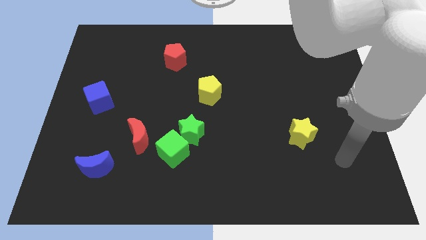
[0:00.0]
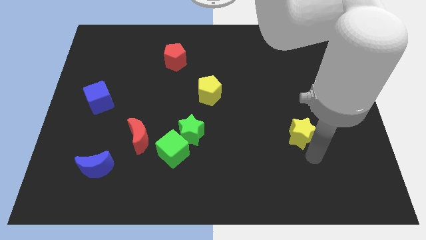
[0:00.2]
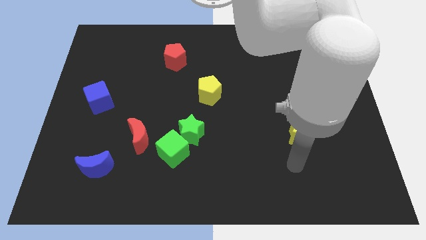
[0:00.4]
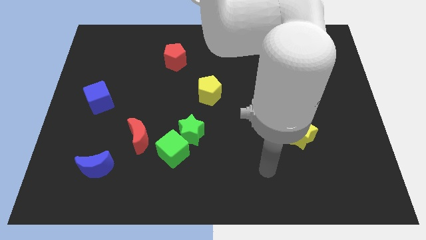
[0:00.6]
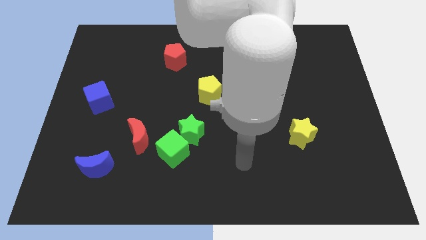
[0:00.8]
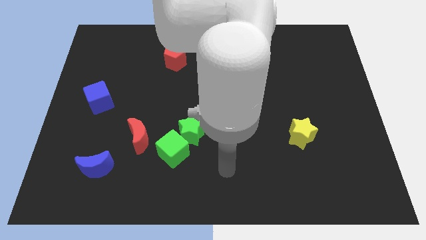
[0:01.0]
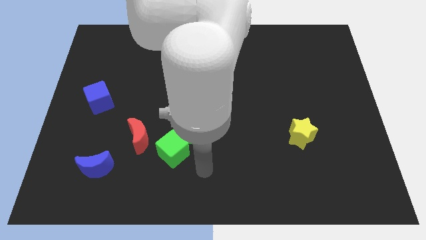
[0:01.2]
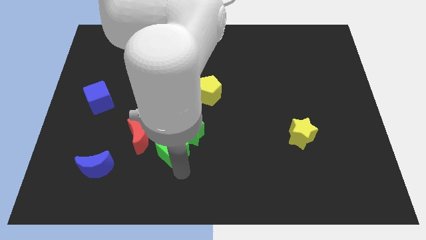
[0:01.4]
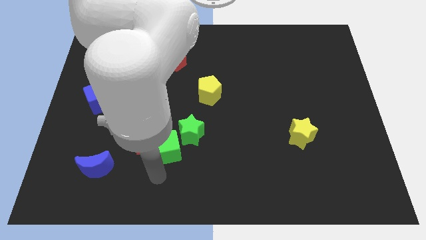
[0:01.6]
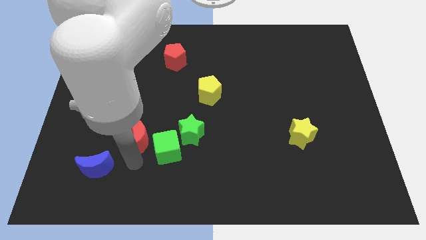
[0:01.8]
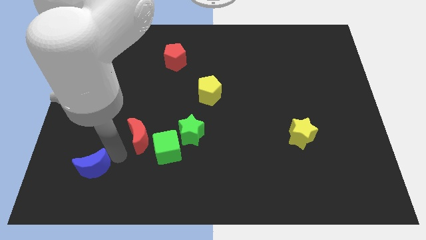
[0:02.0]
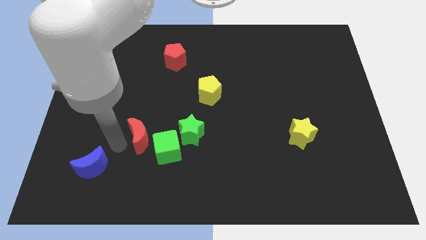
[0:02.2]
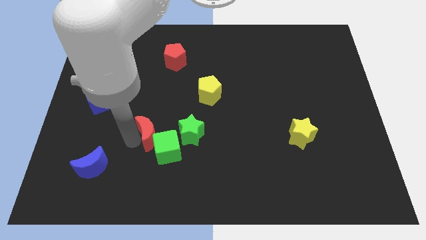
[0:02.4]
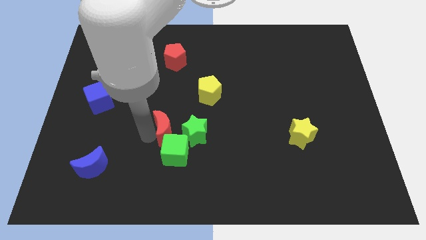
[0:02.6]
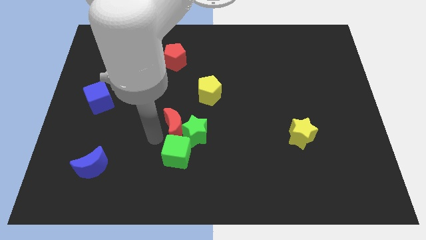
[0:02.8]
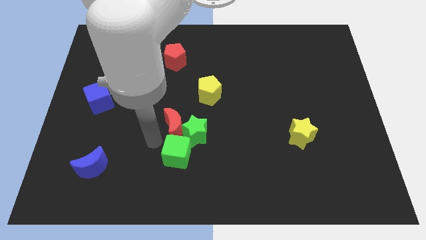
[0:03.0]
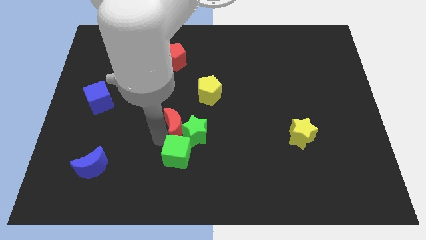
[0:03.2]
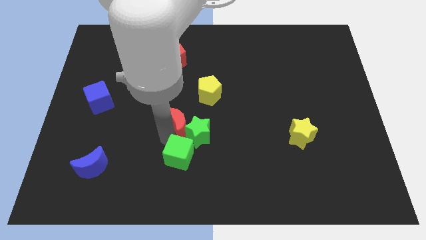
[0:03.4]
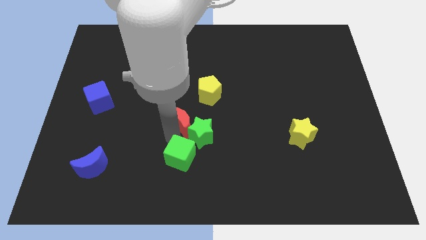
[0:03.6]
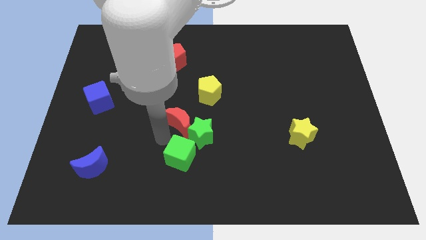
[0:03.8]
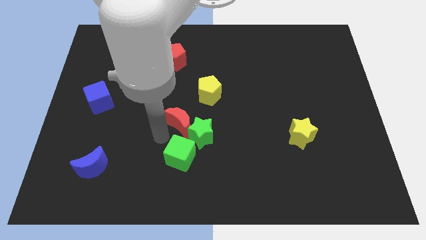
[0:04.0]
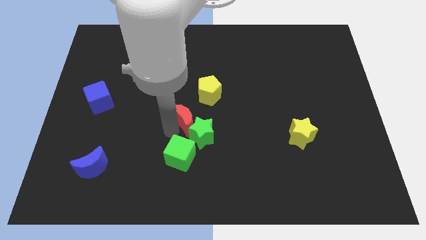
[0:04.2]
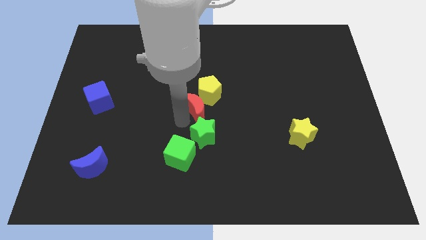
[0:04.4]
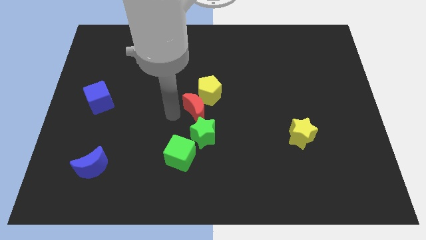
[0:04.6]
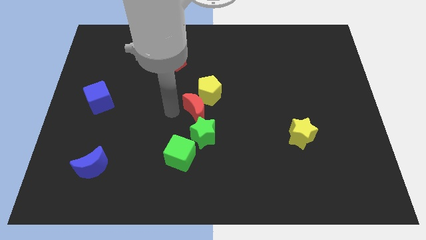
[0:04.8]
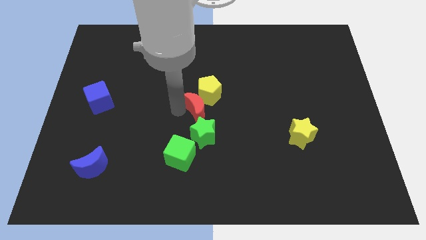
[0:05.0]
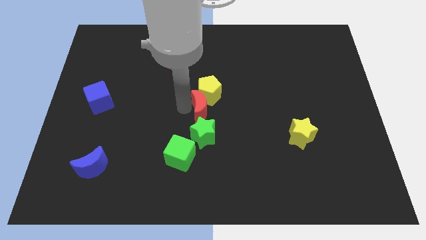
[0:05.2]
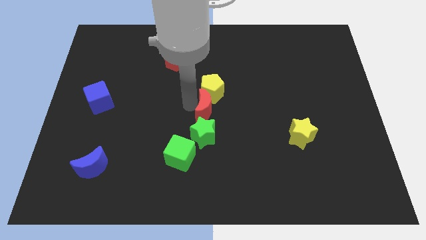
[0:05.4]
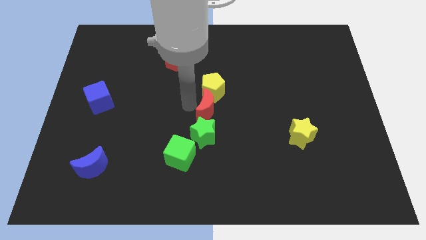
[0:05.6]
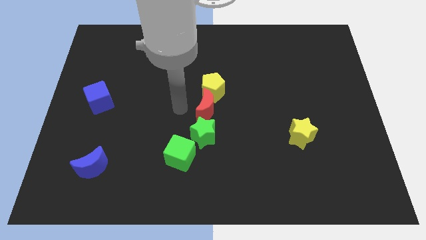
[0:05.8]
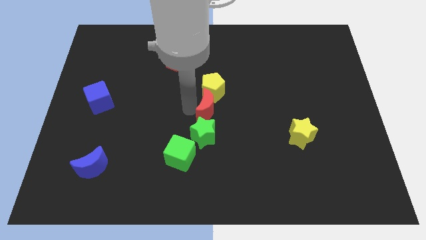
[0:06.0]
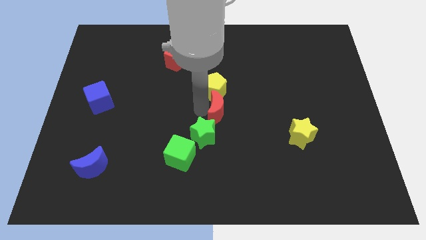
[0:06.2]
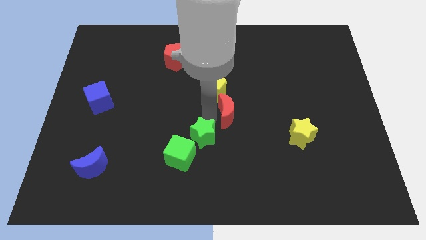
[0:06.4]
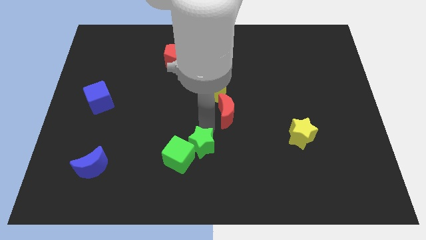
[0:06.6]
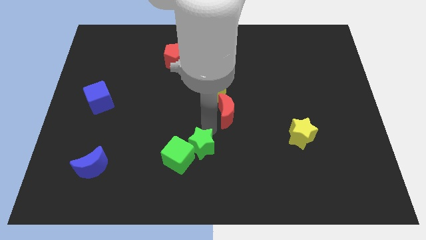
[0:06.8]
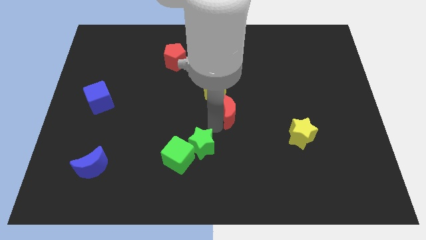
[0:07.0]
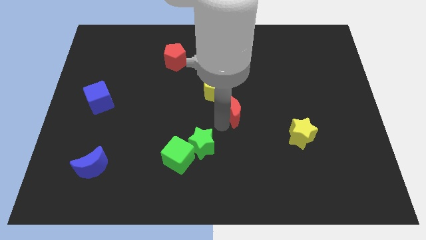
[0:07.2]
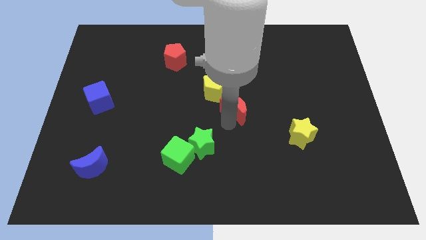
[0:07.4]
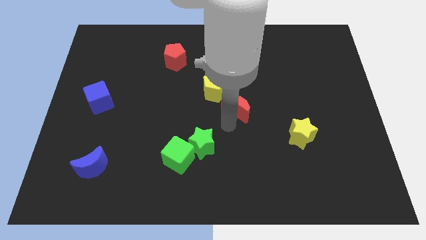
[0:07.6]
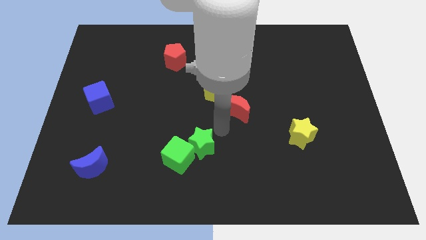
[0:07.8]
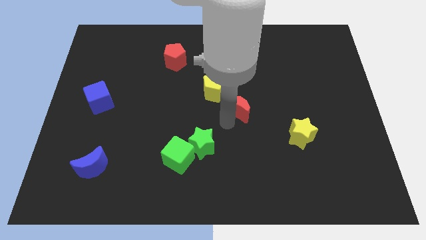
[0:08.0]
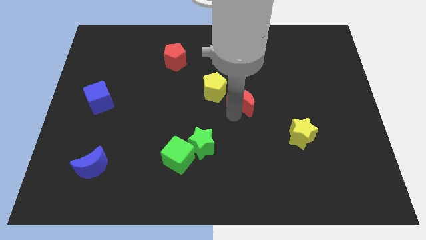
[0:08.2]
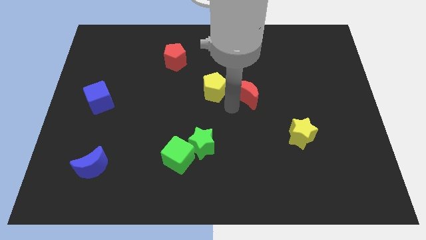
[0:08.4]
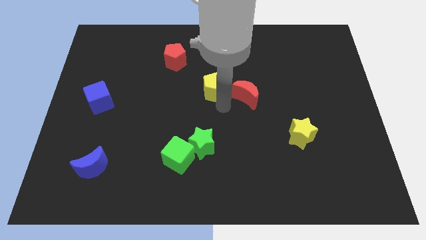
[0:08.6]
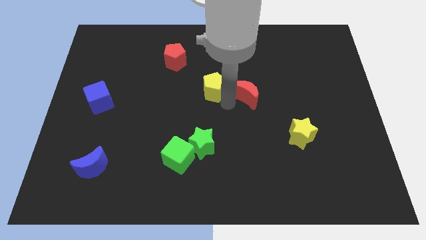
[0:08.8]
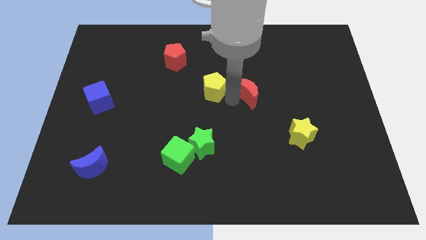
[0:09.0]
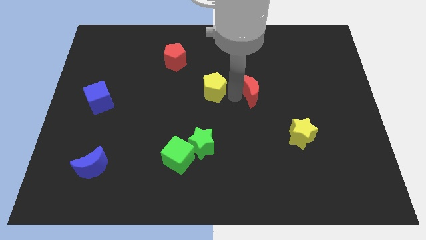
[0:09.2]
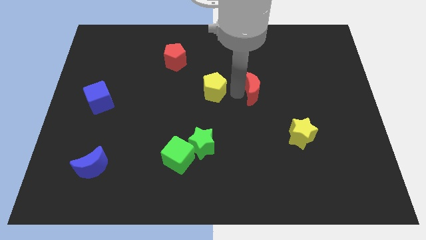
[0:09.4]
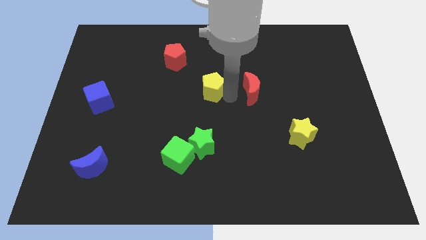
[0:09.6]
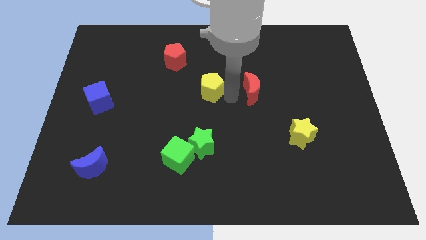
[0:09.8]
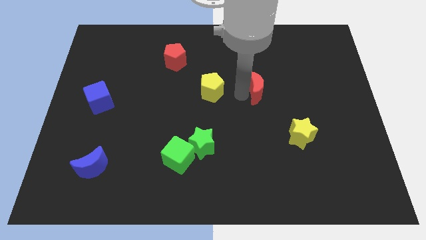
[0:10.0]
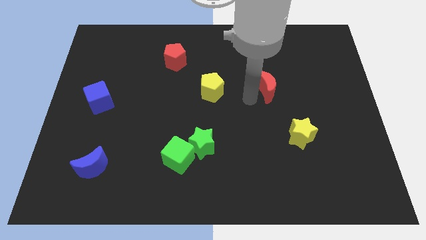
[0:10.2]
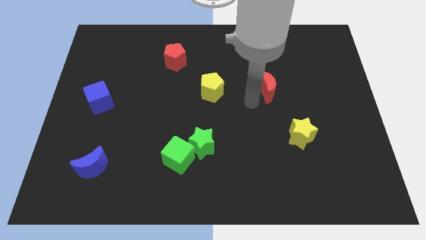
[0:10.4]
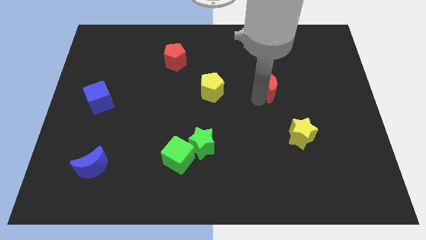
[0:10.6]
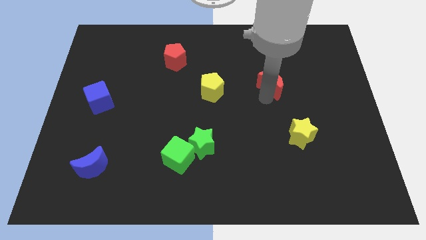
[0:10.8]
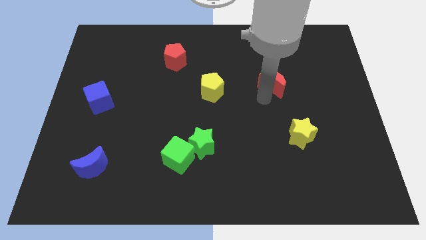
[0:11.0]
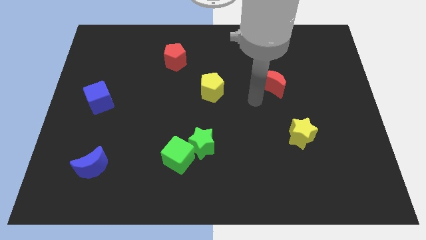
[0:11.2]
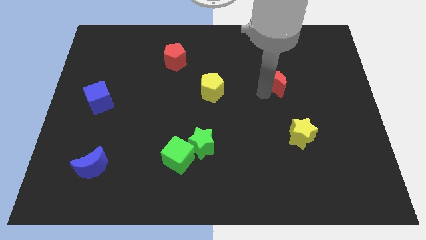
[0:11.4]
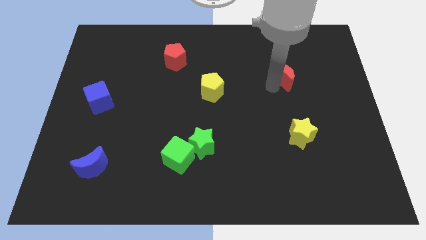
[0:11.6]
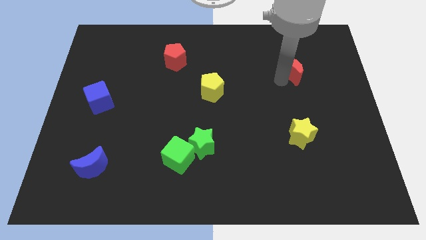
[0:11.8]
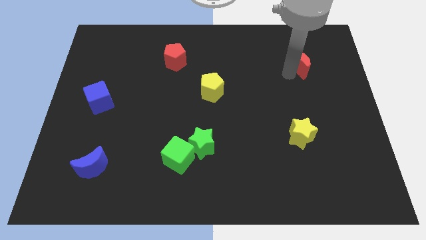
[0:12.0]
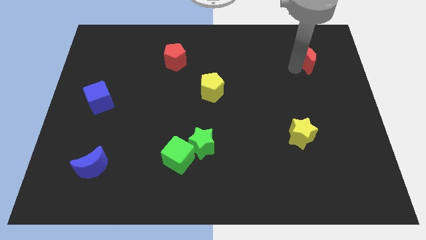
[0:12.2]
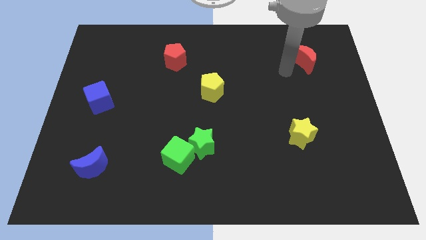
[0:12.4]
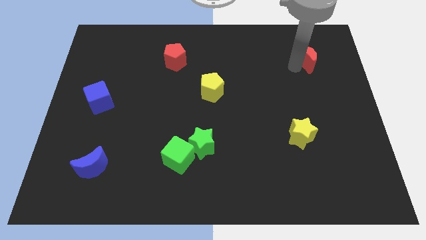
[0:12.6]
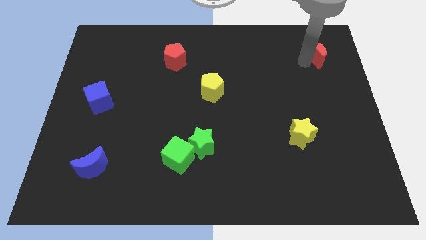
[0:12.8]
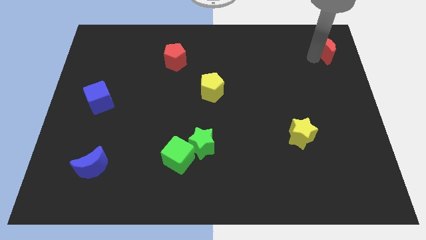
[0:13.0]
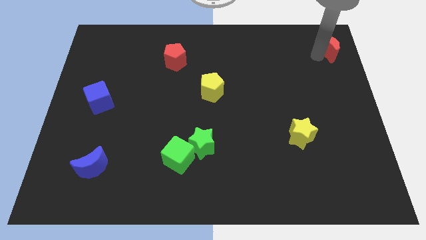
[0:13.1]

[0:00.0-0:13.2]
put the red moon to the top right

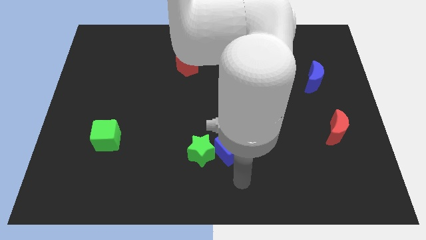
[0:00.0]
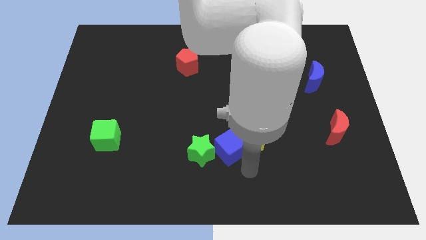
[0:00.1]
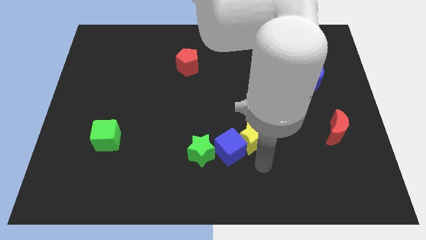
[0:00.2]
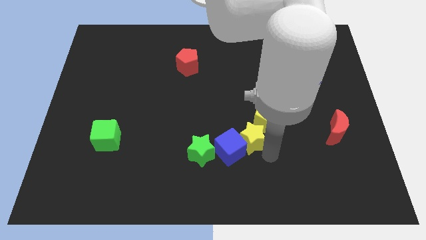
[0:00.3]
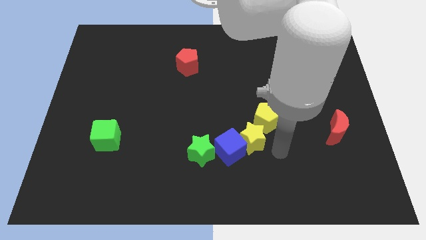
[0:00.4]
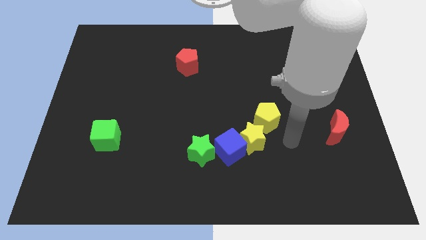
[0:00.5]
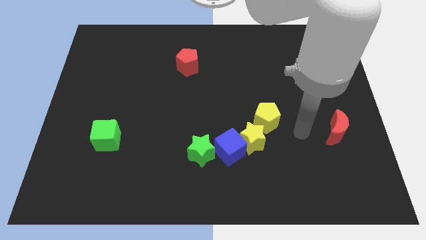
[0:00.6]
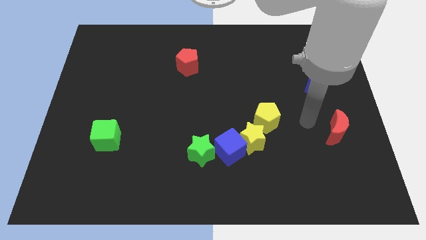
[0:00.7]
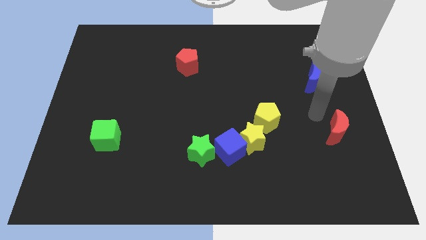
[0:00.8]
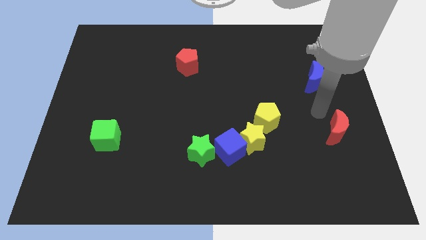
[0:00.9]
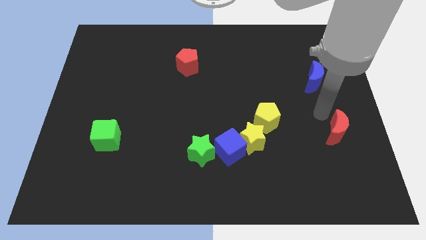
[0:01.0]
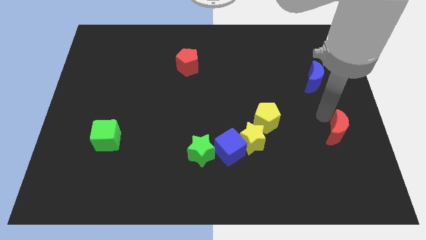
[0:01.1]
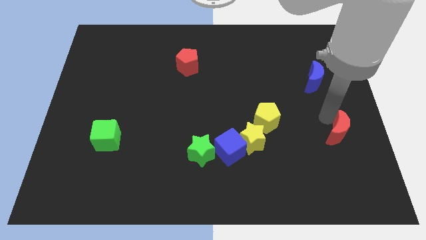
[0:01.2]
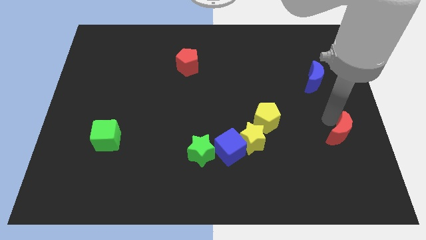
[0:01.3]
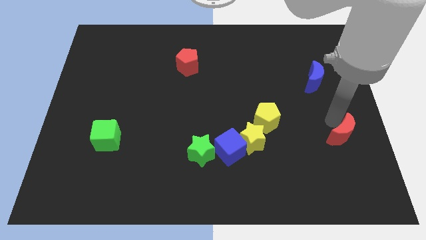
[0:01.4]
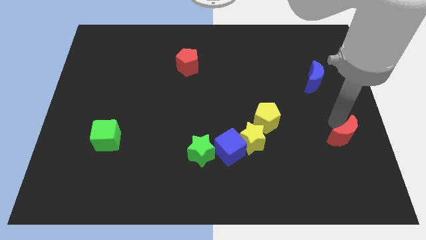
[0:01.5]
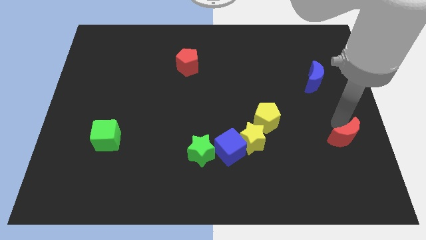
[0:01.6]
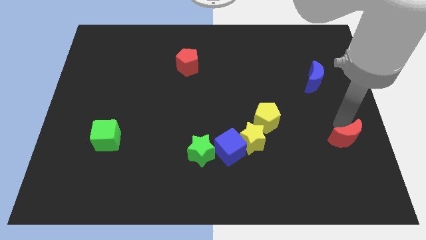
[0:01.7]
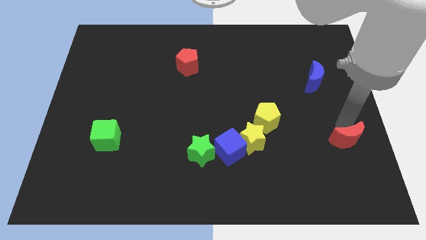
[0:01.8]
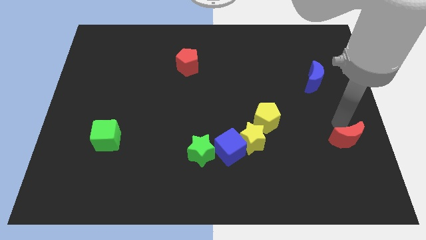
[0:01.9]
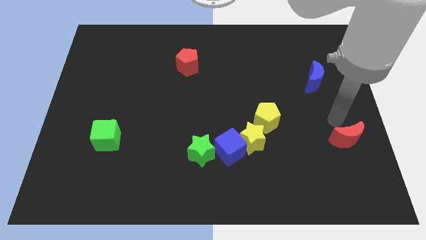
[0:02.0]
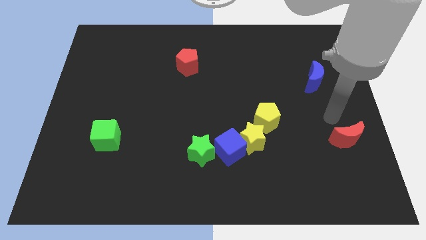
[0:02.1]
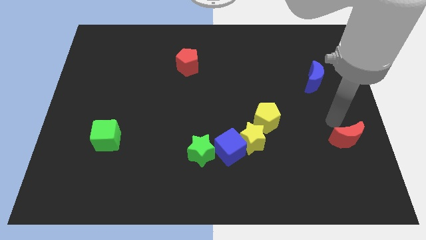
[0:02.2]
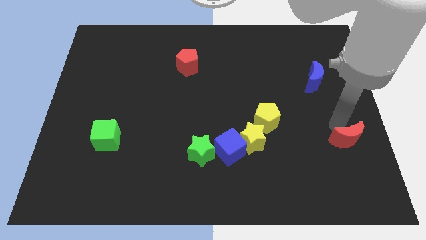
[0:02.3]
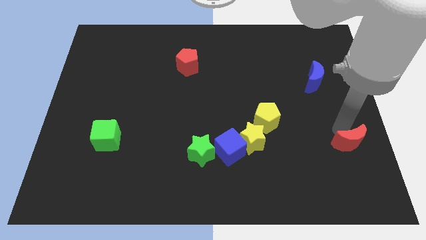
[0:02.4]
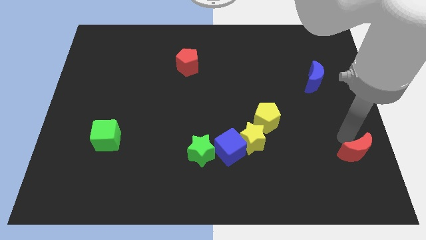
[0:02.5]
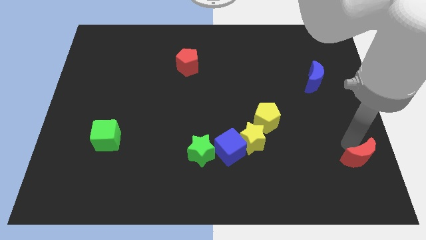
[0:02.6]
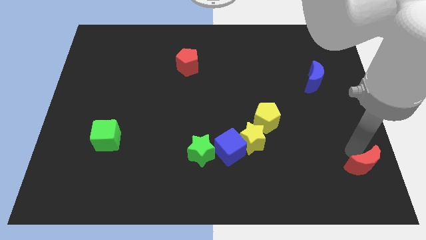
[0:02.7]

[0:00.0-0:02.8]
push the red moon to the bottom right corner
